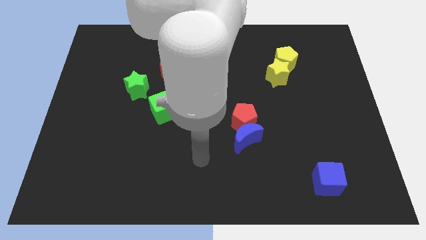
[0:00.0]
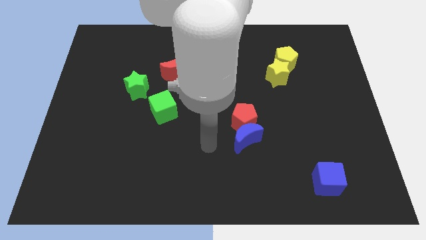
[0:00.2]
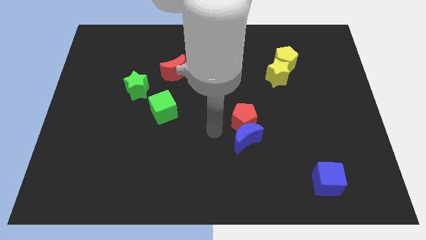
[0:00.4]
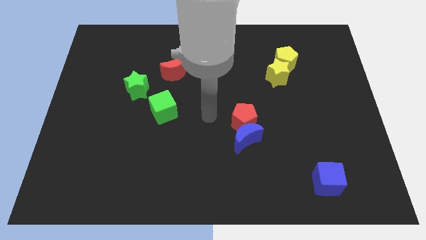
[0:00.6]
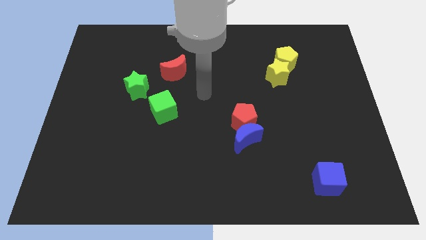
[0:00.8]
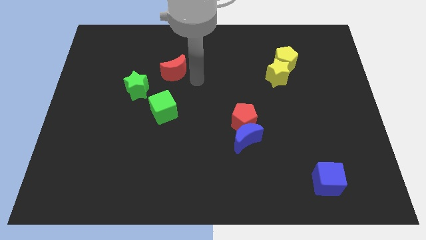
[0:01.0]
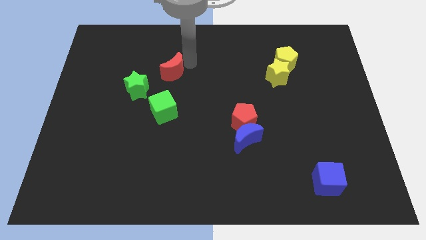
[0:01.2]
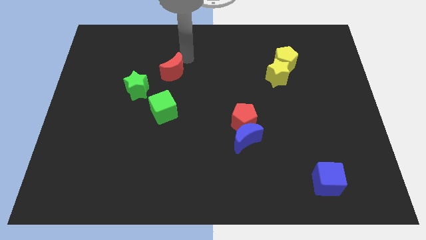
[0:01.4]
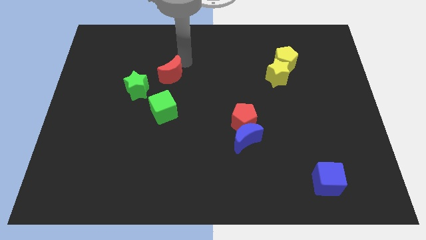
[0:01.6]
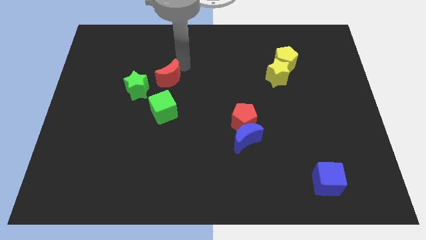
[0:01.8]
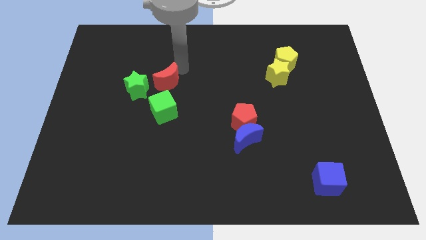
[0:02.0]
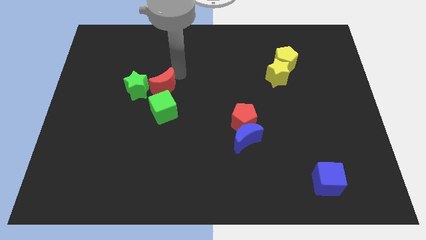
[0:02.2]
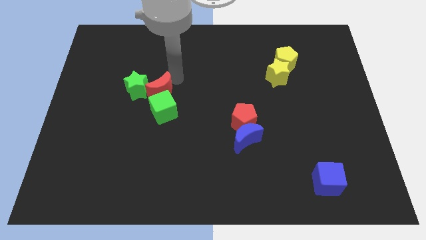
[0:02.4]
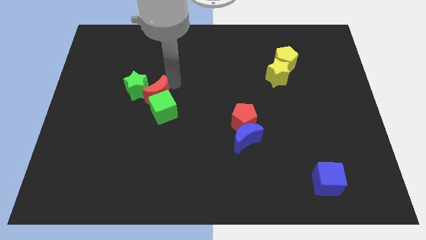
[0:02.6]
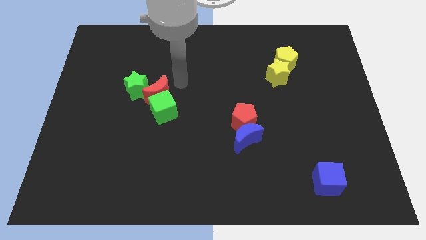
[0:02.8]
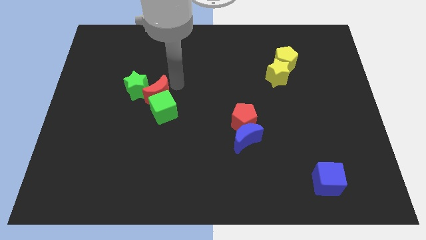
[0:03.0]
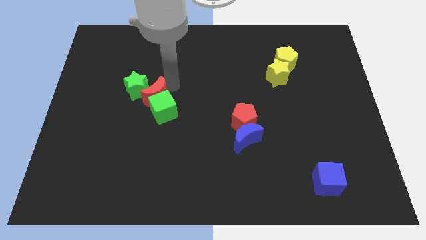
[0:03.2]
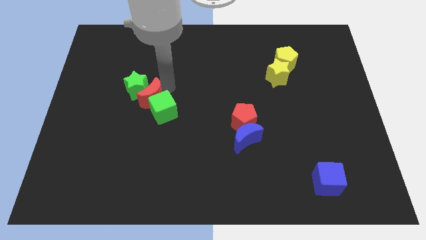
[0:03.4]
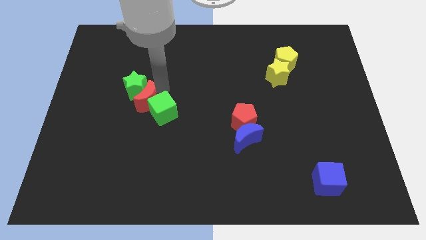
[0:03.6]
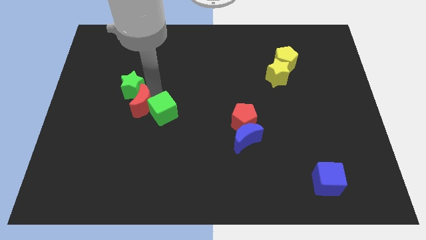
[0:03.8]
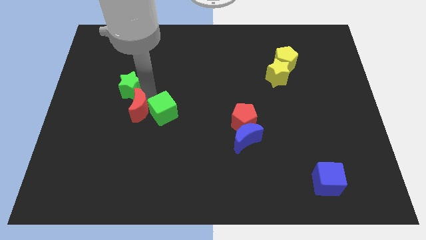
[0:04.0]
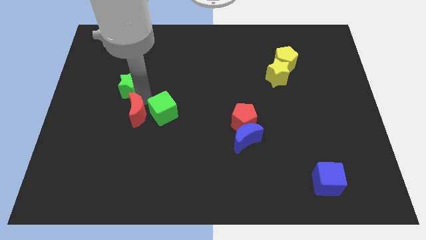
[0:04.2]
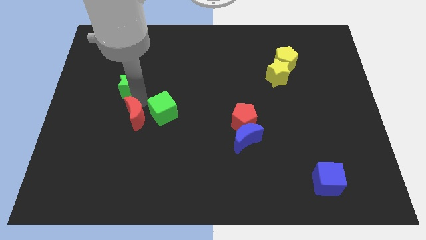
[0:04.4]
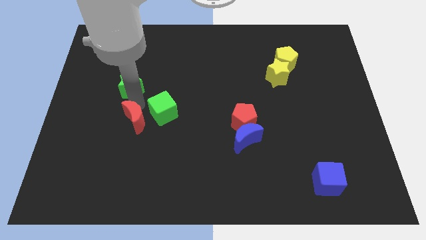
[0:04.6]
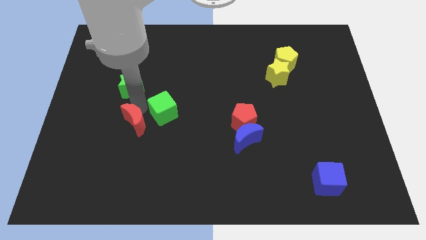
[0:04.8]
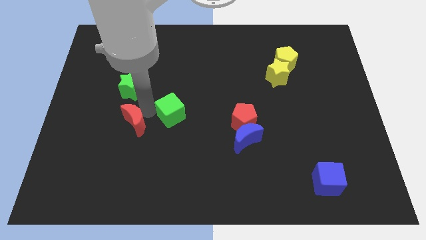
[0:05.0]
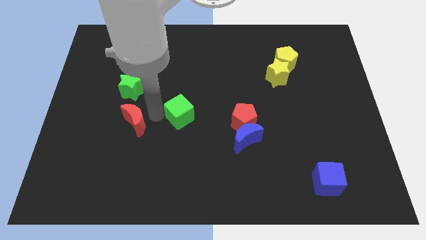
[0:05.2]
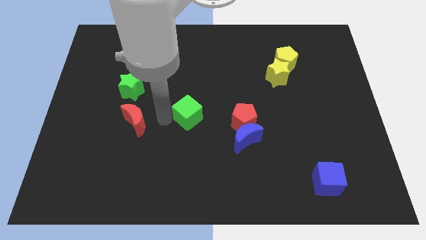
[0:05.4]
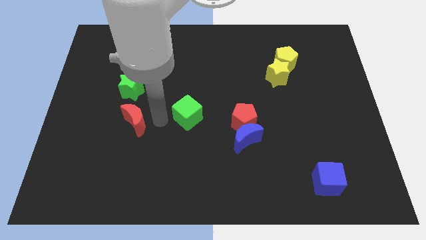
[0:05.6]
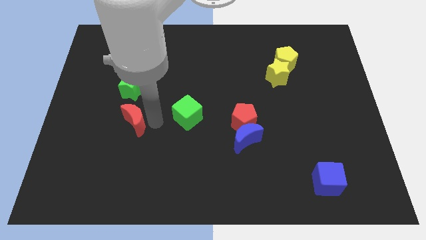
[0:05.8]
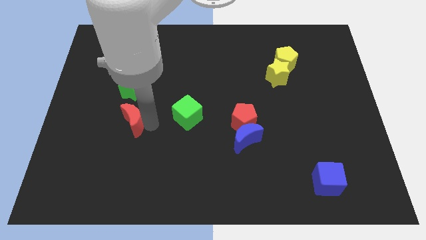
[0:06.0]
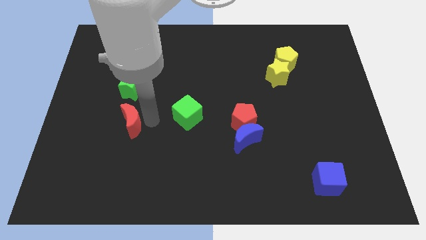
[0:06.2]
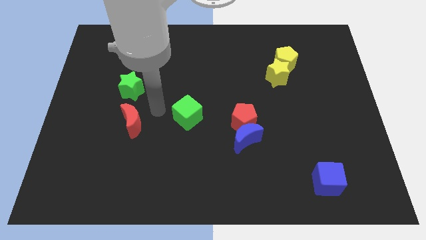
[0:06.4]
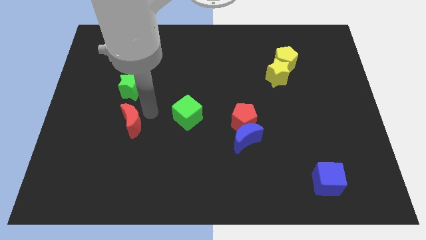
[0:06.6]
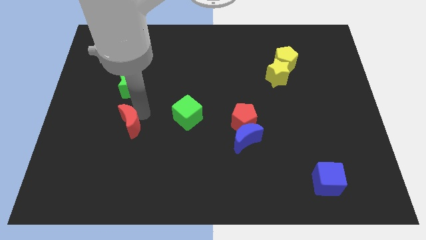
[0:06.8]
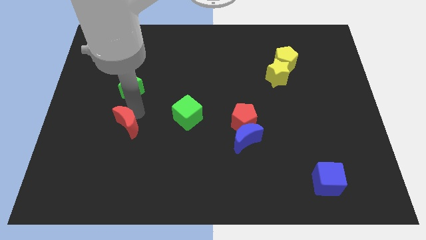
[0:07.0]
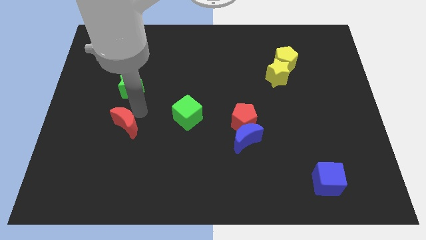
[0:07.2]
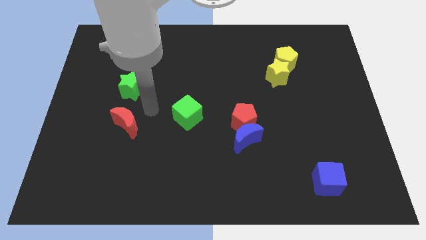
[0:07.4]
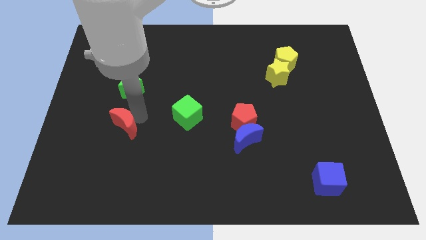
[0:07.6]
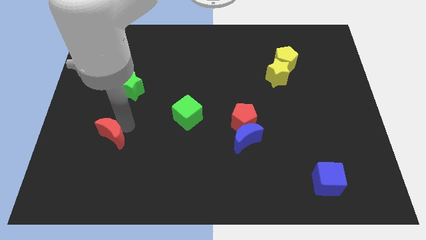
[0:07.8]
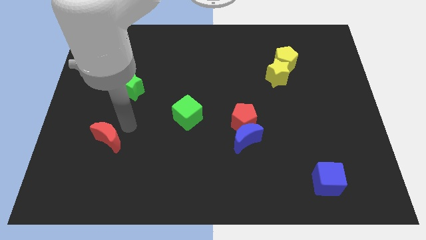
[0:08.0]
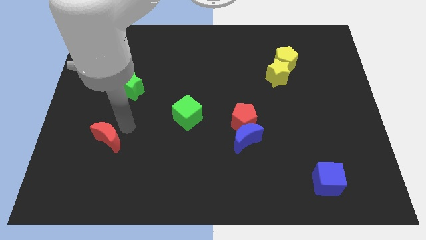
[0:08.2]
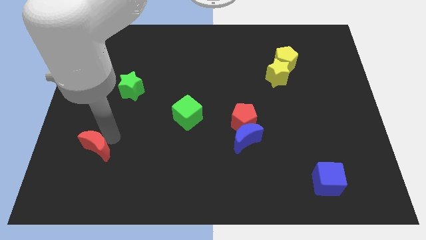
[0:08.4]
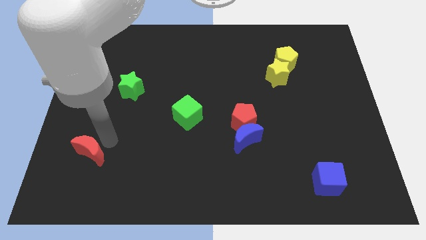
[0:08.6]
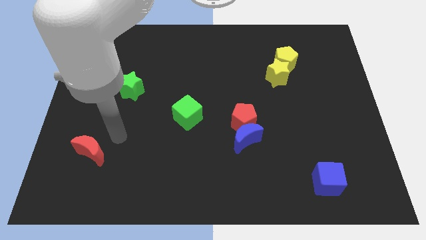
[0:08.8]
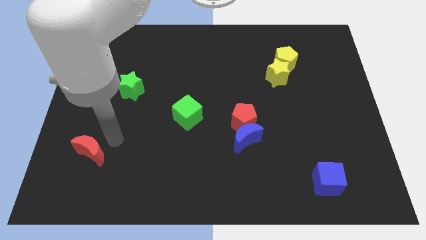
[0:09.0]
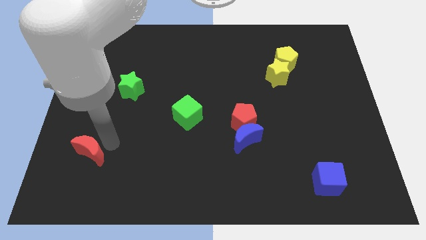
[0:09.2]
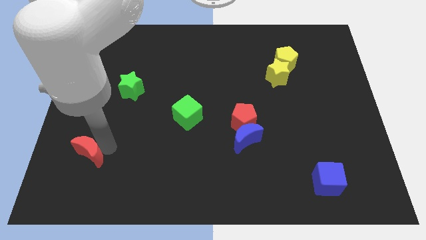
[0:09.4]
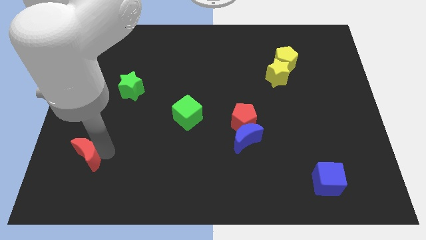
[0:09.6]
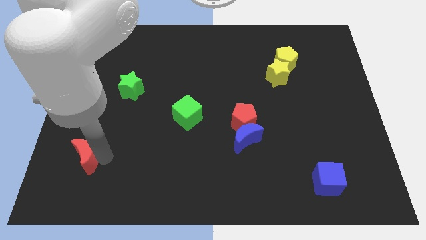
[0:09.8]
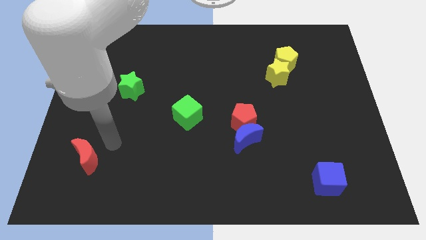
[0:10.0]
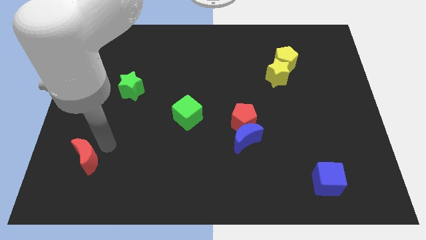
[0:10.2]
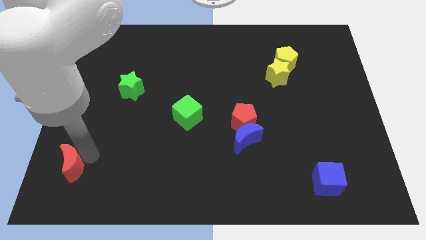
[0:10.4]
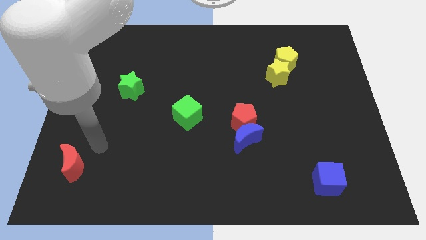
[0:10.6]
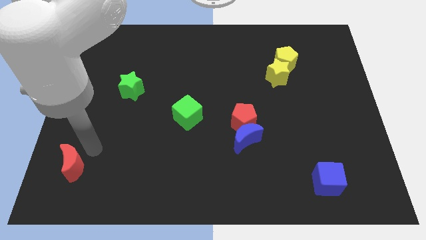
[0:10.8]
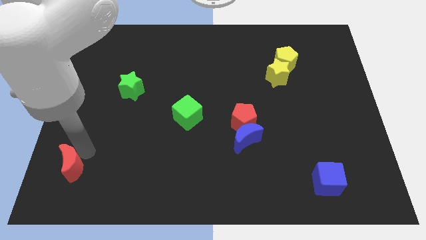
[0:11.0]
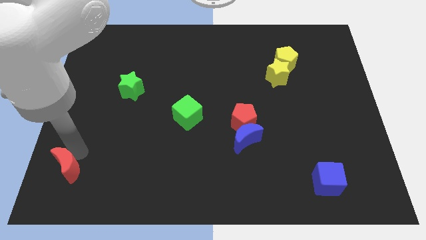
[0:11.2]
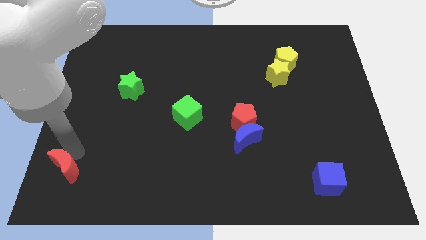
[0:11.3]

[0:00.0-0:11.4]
put the red moon to the bottom left of the board

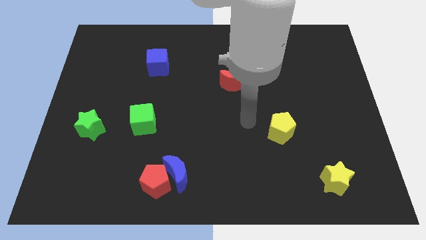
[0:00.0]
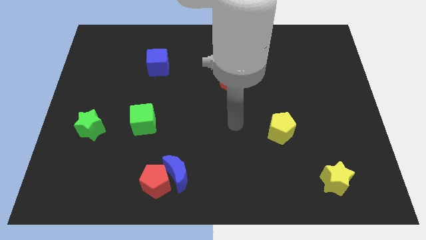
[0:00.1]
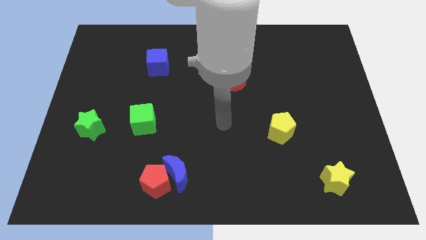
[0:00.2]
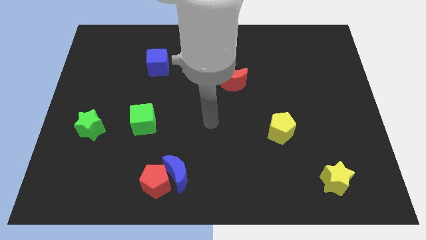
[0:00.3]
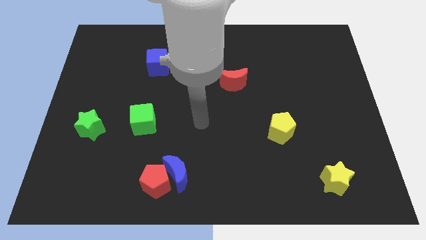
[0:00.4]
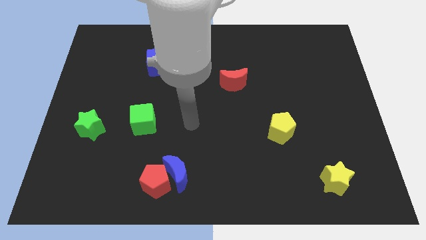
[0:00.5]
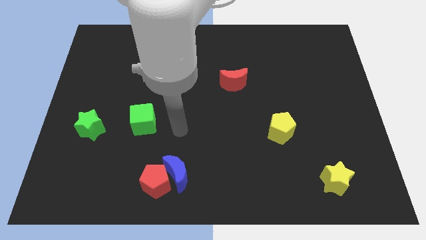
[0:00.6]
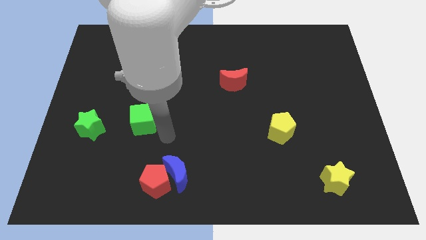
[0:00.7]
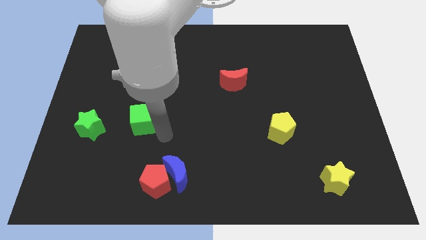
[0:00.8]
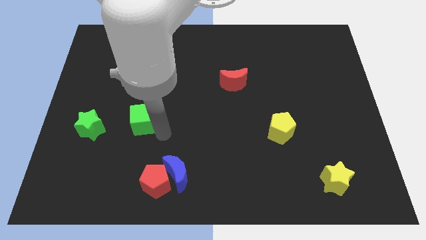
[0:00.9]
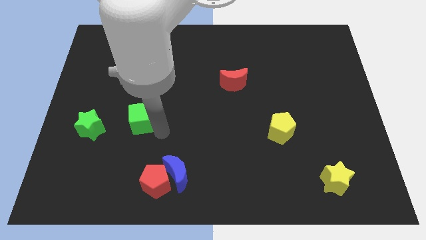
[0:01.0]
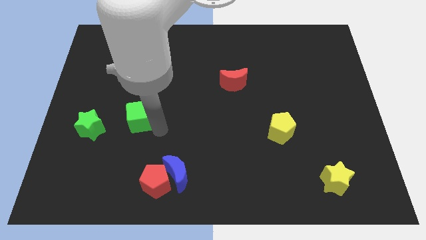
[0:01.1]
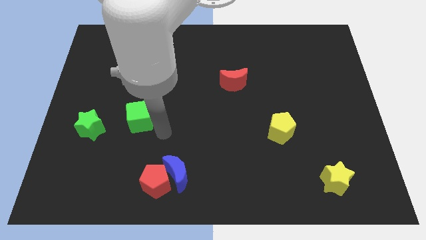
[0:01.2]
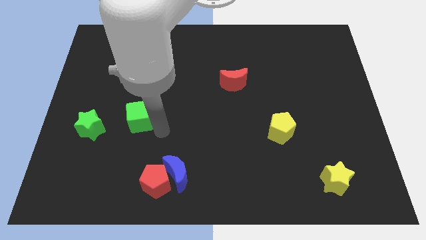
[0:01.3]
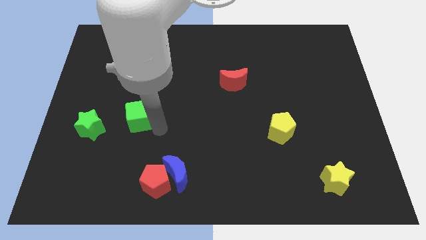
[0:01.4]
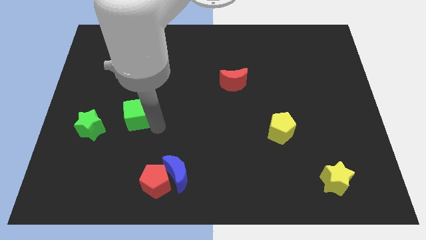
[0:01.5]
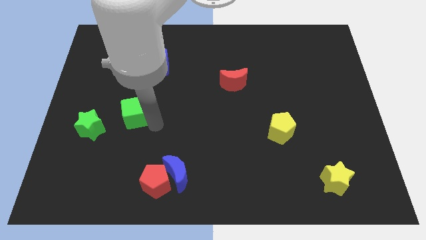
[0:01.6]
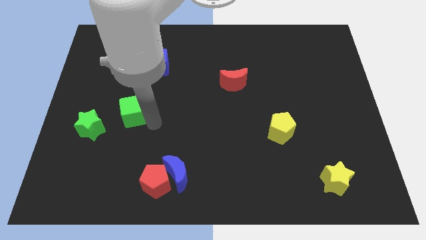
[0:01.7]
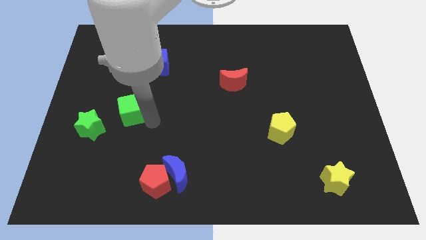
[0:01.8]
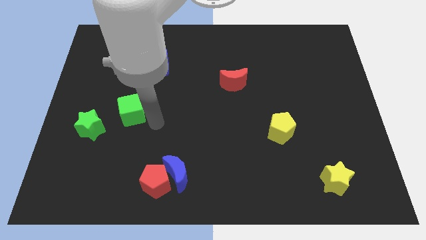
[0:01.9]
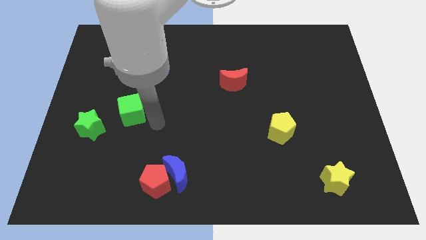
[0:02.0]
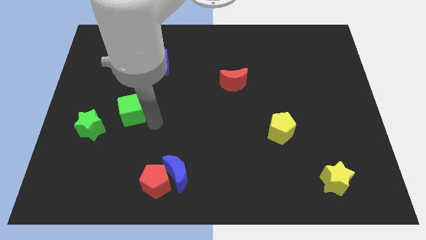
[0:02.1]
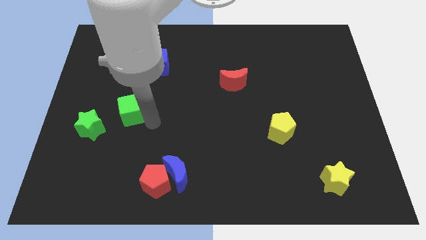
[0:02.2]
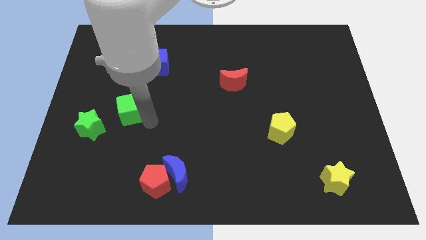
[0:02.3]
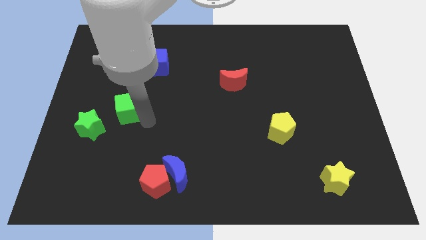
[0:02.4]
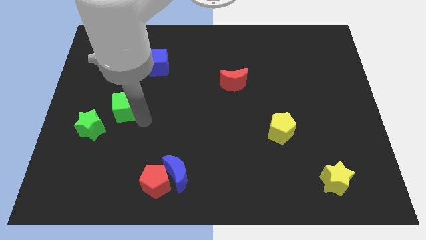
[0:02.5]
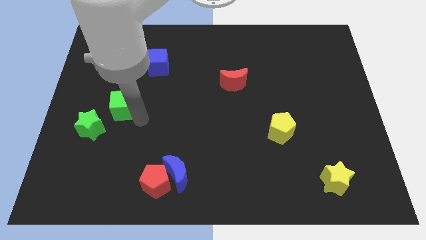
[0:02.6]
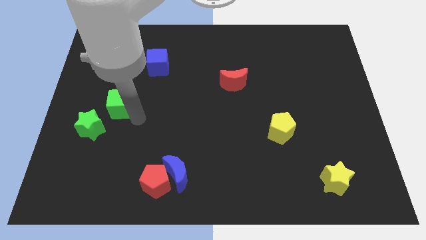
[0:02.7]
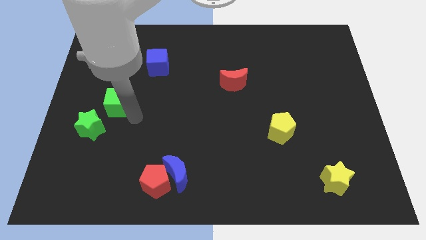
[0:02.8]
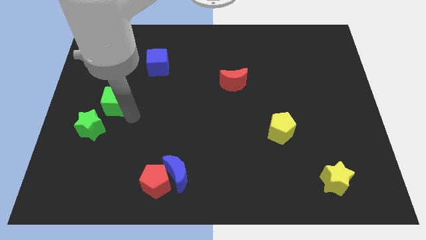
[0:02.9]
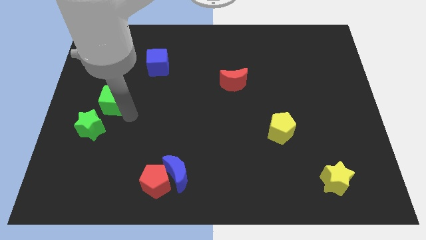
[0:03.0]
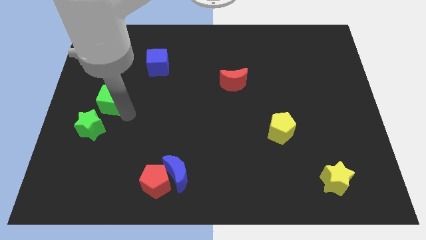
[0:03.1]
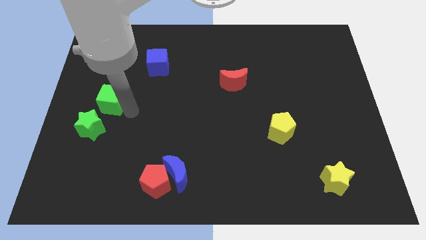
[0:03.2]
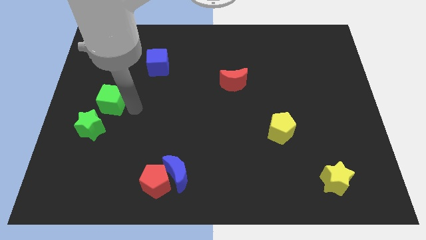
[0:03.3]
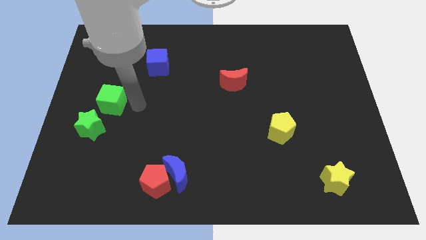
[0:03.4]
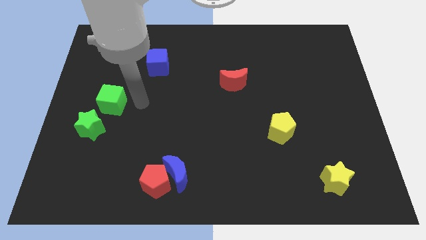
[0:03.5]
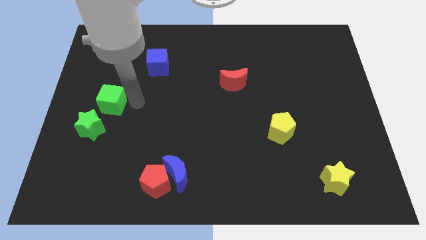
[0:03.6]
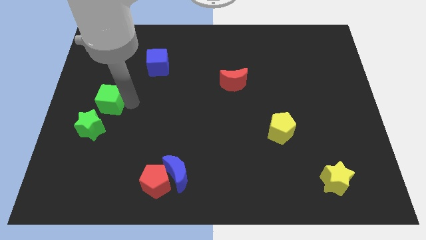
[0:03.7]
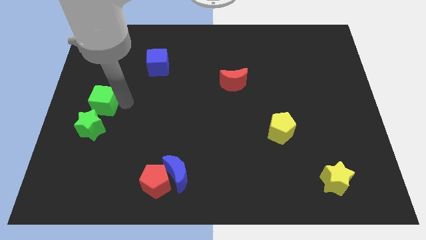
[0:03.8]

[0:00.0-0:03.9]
put the green cube to the center left
